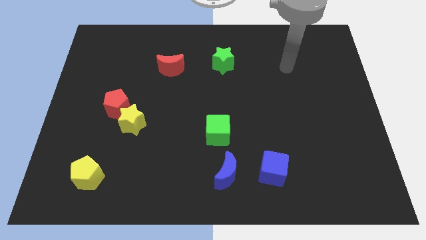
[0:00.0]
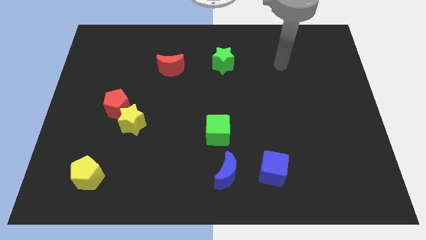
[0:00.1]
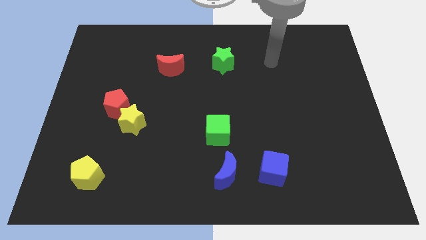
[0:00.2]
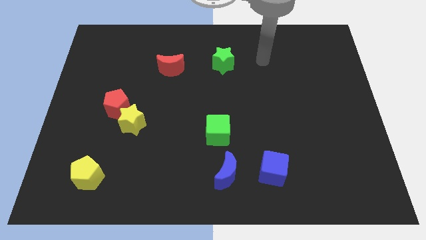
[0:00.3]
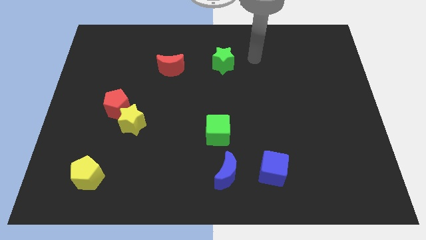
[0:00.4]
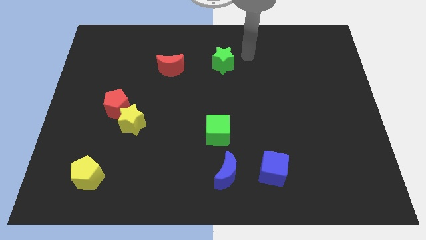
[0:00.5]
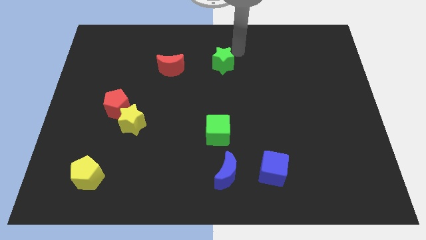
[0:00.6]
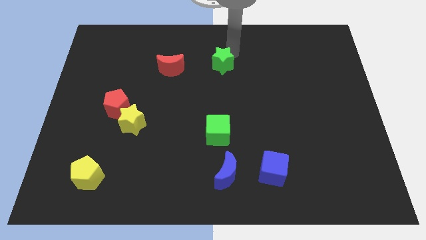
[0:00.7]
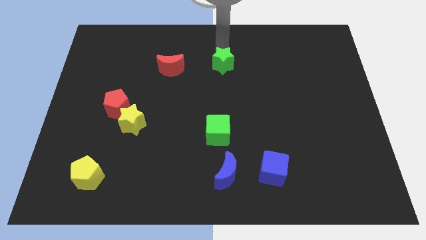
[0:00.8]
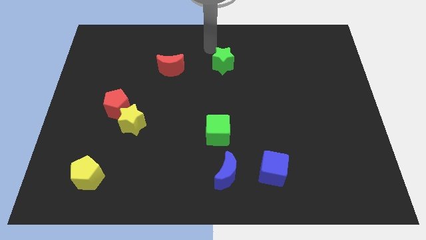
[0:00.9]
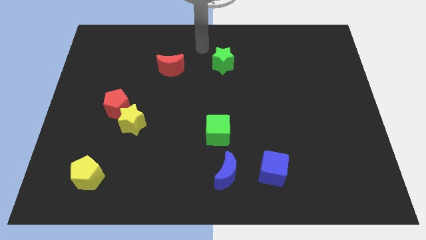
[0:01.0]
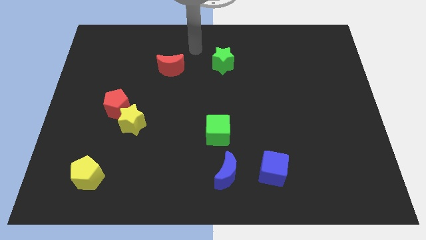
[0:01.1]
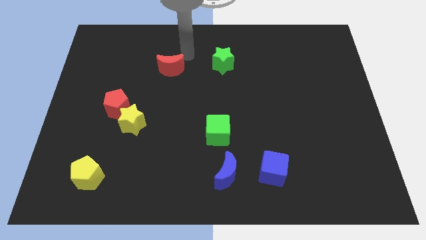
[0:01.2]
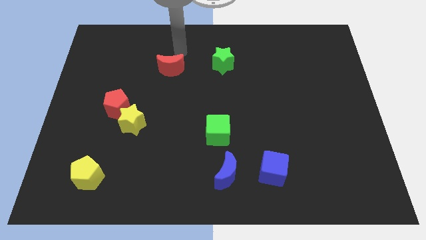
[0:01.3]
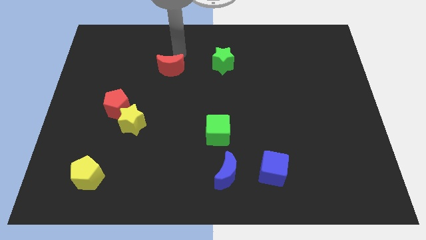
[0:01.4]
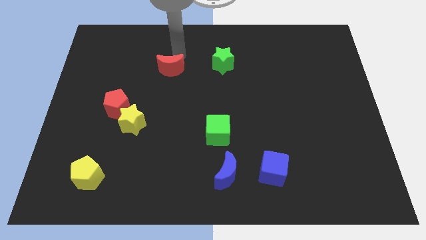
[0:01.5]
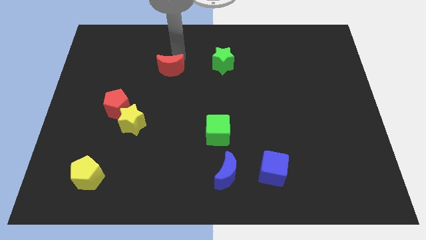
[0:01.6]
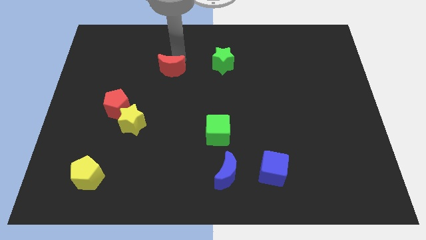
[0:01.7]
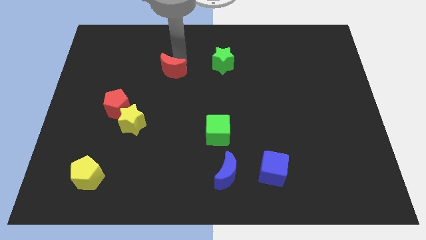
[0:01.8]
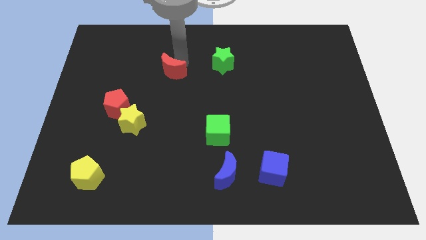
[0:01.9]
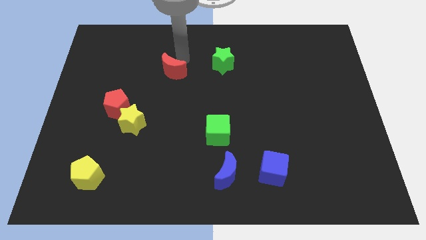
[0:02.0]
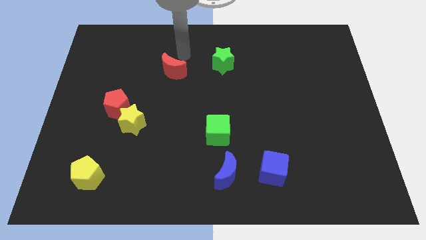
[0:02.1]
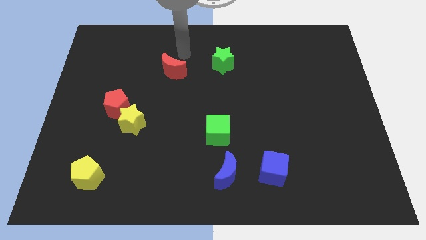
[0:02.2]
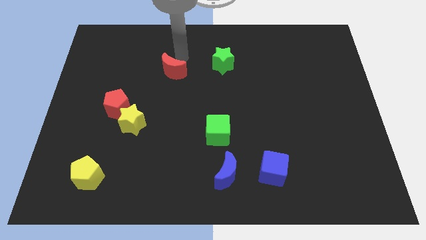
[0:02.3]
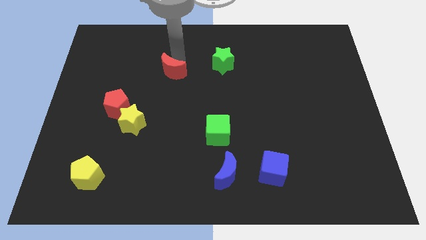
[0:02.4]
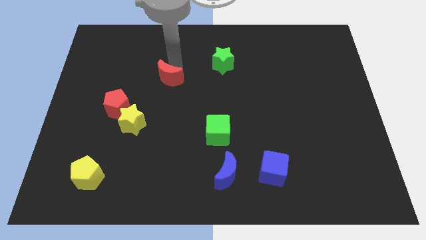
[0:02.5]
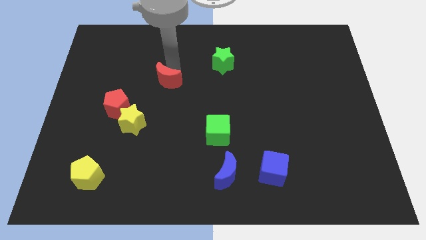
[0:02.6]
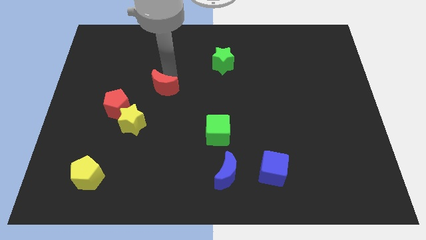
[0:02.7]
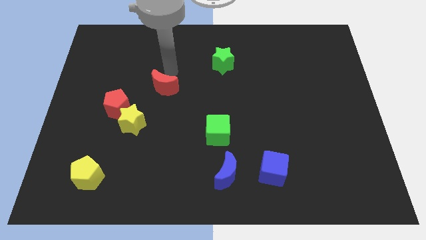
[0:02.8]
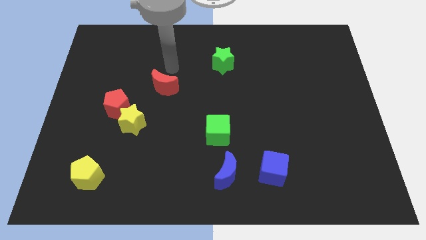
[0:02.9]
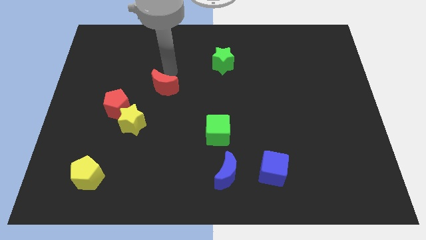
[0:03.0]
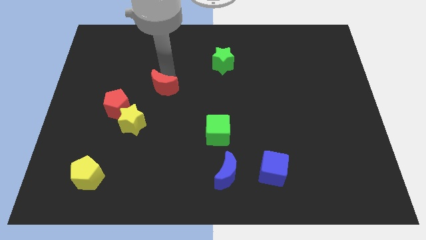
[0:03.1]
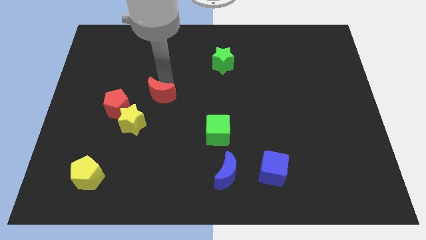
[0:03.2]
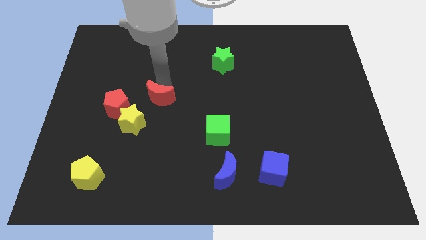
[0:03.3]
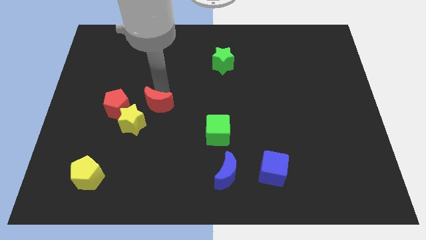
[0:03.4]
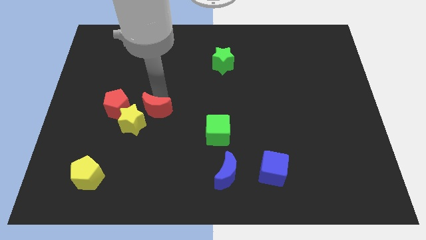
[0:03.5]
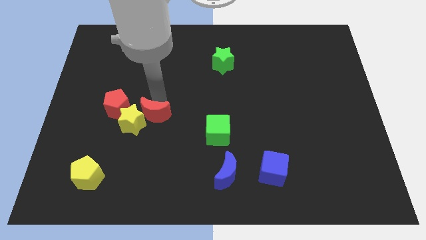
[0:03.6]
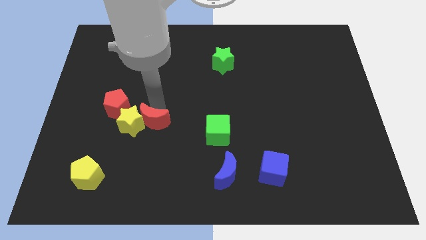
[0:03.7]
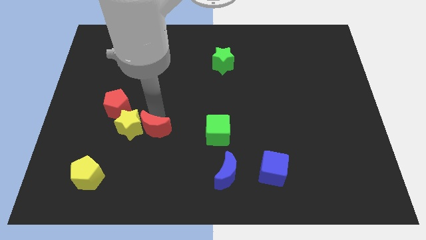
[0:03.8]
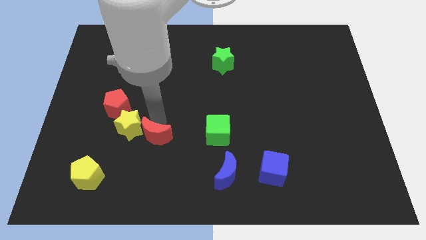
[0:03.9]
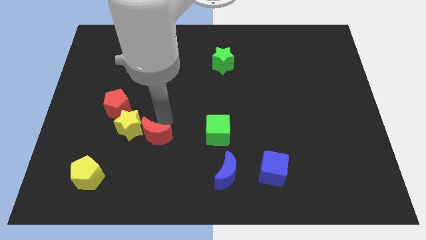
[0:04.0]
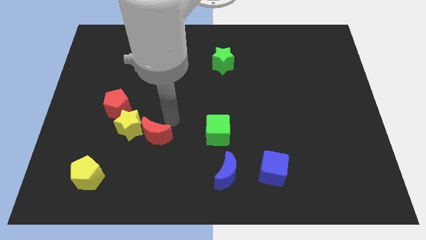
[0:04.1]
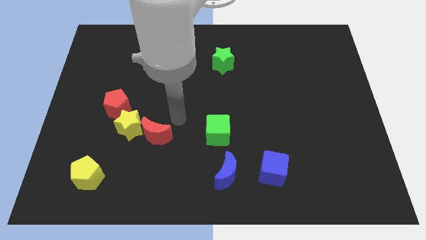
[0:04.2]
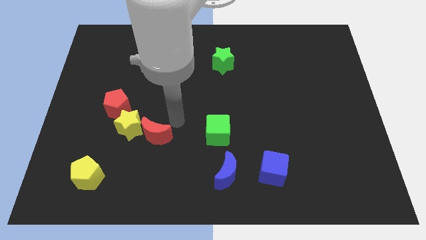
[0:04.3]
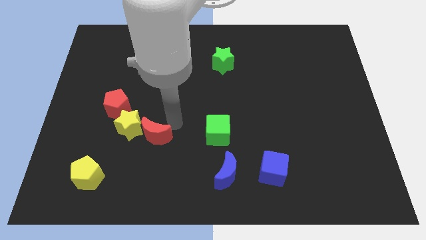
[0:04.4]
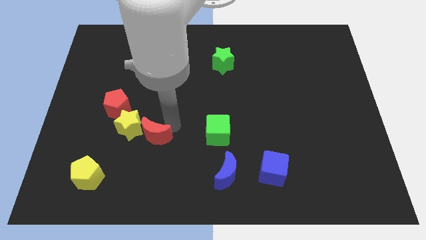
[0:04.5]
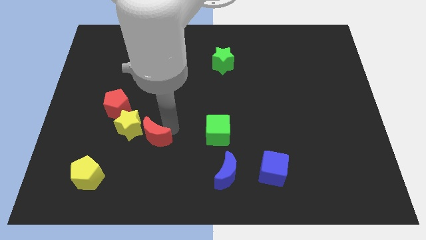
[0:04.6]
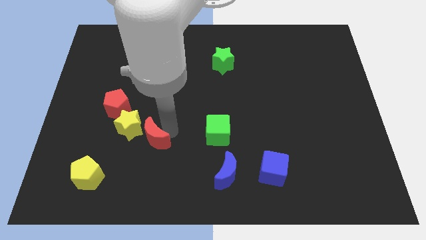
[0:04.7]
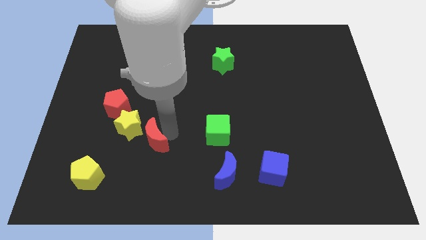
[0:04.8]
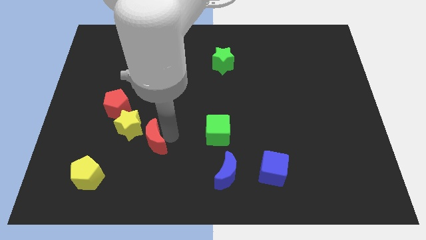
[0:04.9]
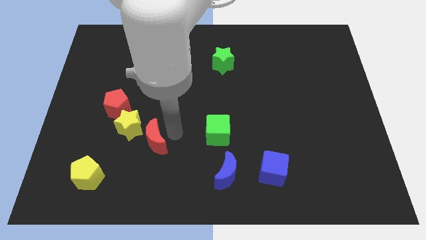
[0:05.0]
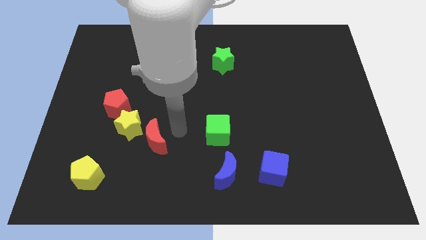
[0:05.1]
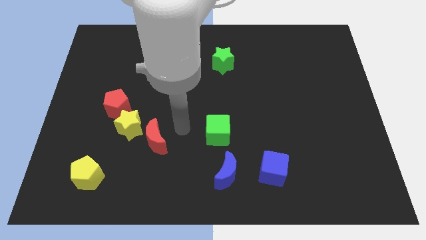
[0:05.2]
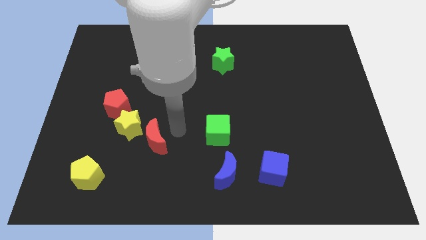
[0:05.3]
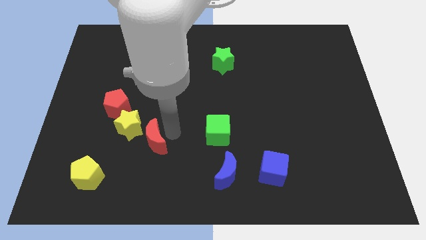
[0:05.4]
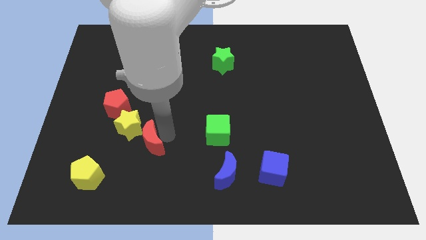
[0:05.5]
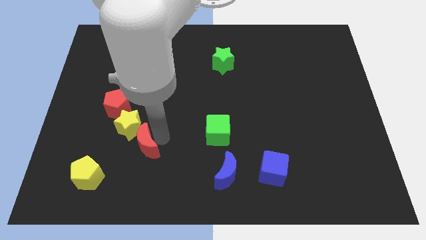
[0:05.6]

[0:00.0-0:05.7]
push the red moon to the bottom side of the yellow star

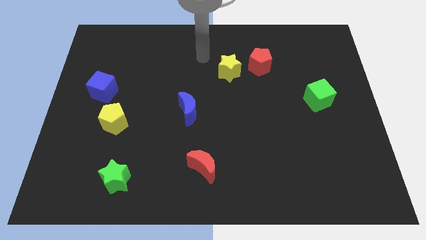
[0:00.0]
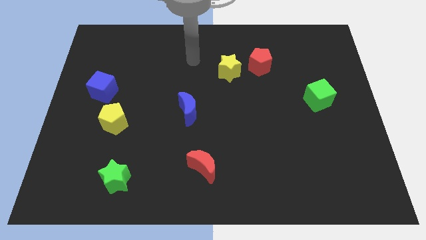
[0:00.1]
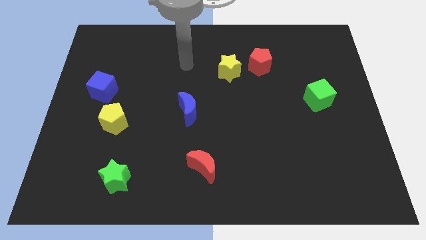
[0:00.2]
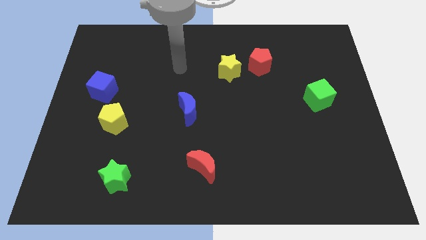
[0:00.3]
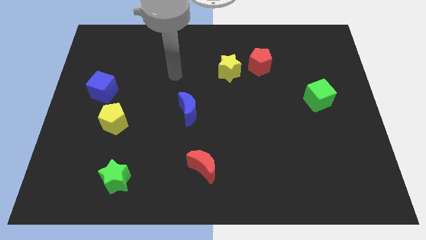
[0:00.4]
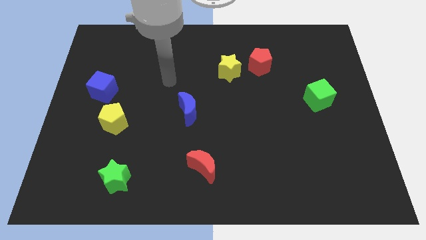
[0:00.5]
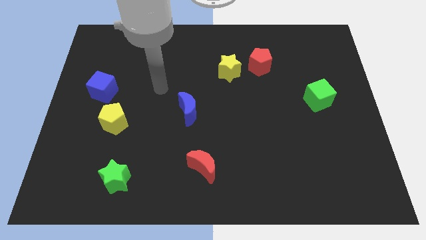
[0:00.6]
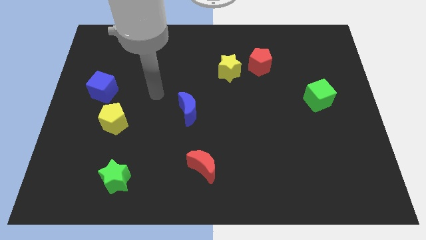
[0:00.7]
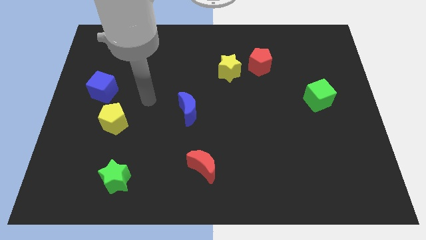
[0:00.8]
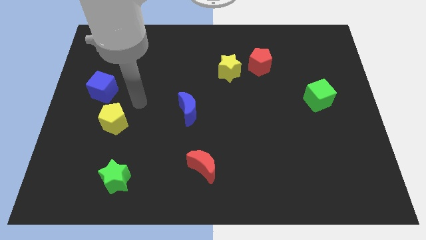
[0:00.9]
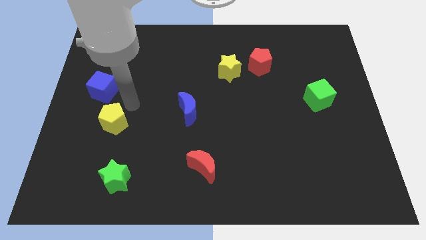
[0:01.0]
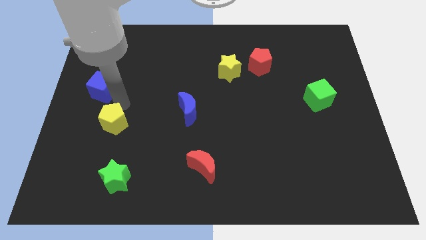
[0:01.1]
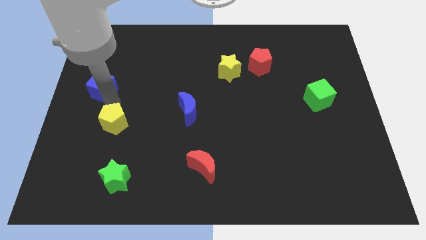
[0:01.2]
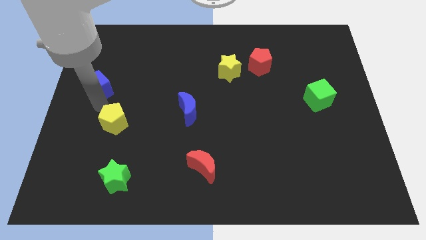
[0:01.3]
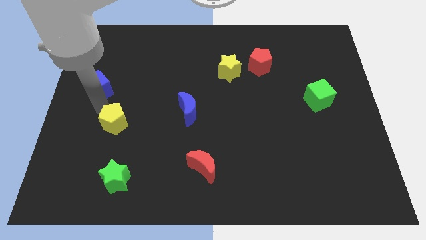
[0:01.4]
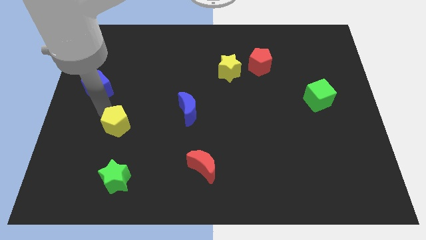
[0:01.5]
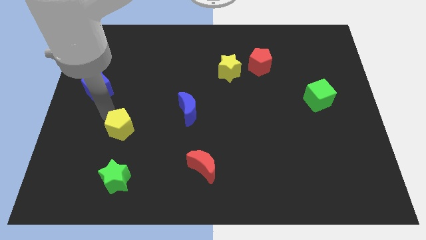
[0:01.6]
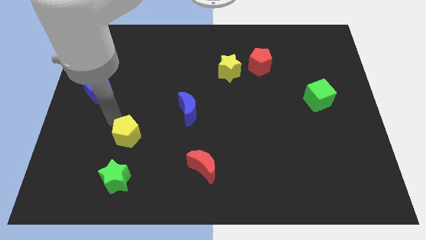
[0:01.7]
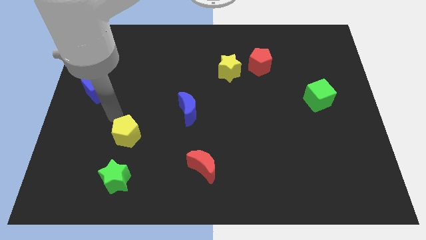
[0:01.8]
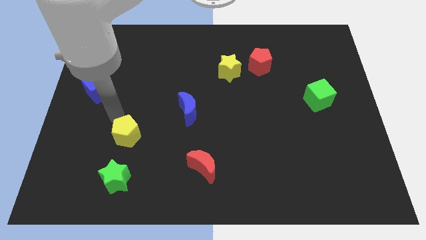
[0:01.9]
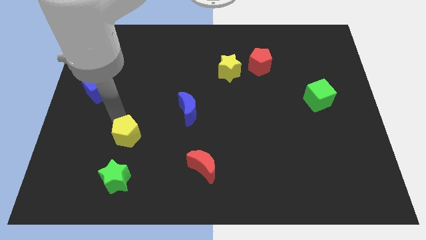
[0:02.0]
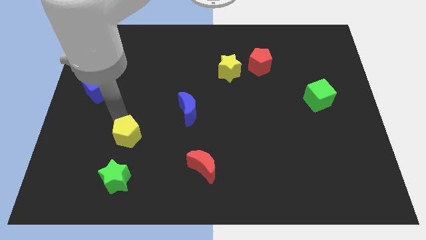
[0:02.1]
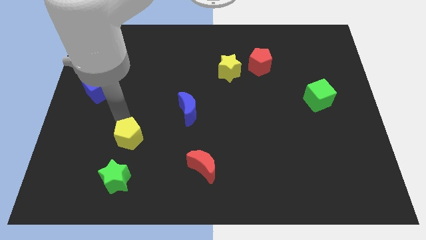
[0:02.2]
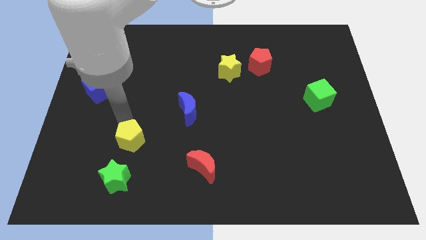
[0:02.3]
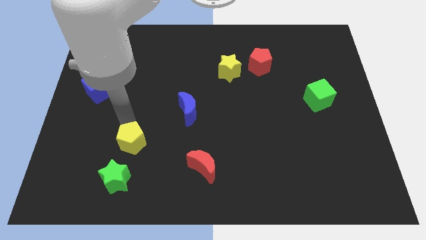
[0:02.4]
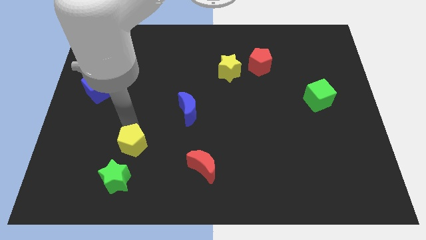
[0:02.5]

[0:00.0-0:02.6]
push the yellow pentagon to the top right side of the green star
